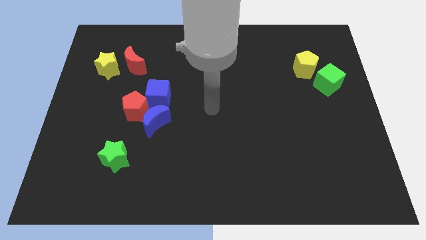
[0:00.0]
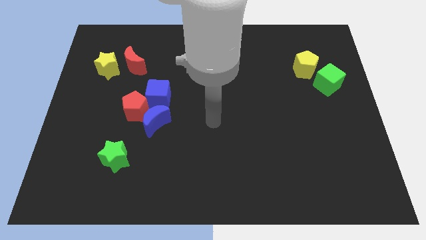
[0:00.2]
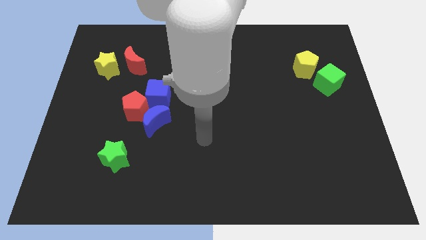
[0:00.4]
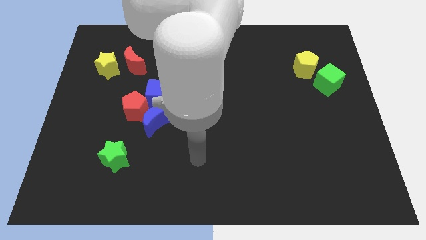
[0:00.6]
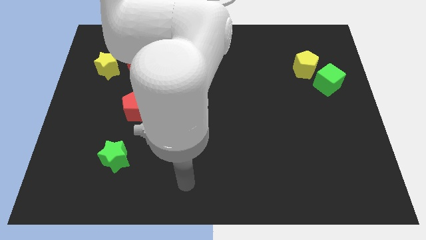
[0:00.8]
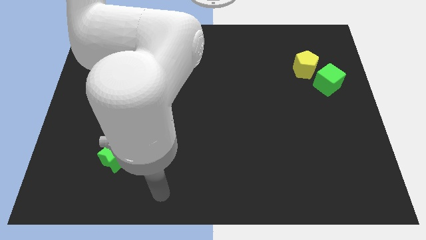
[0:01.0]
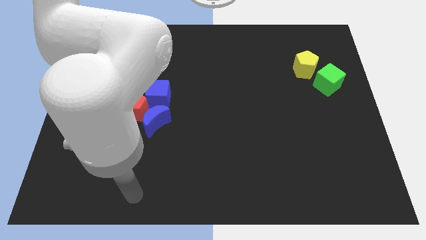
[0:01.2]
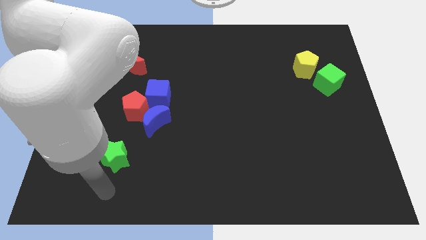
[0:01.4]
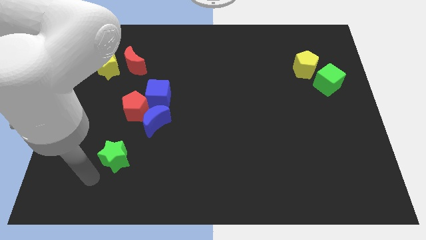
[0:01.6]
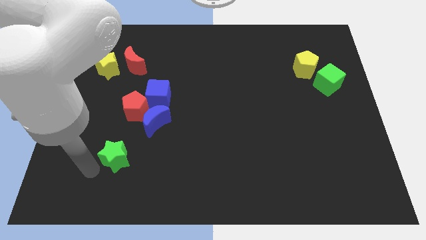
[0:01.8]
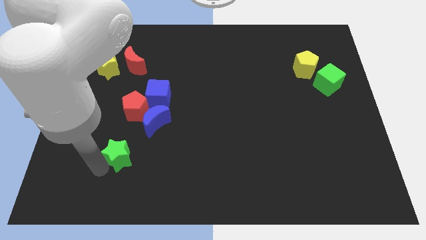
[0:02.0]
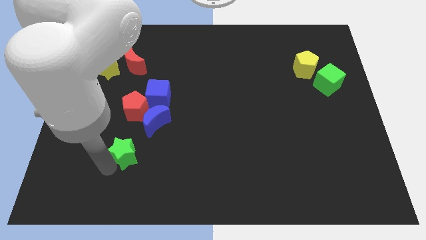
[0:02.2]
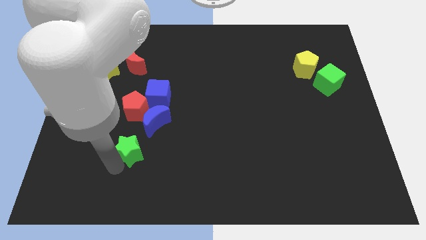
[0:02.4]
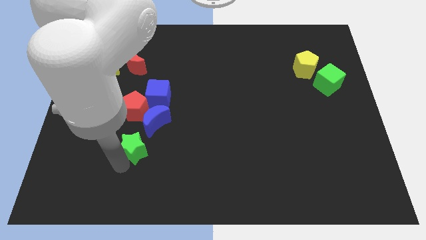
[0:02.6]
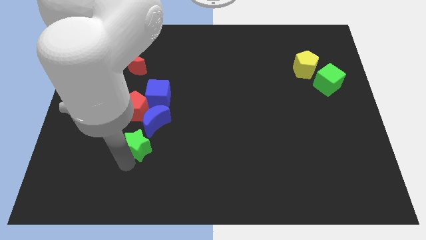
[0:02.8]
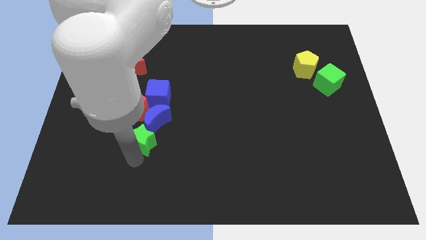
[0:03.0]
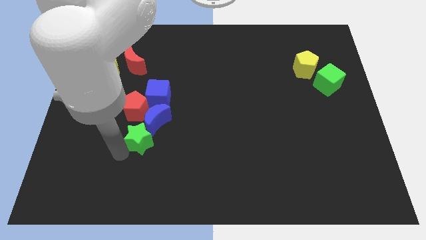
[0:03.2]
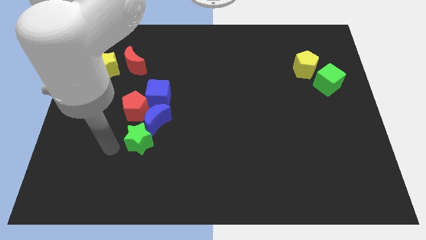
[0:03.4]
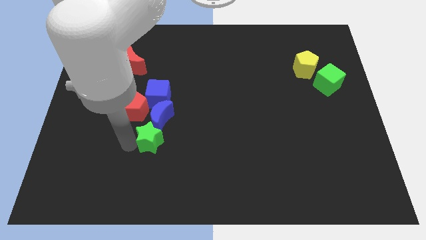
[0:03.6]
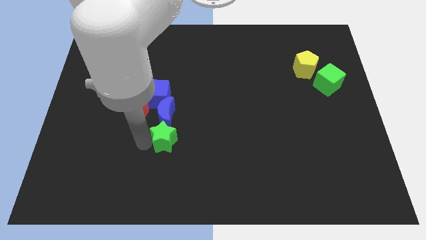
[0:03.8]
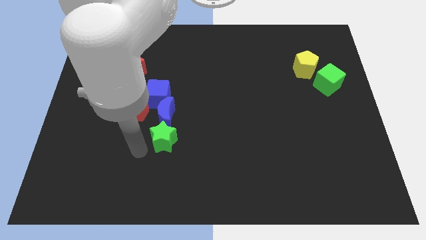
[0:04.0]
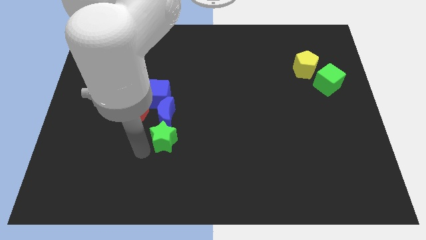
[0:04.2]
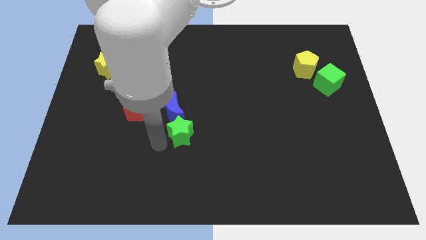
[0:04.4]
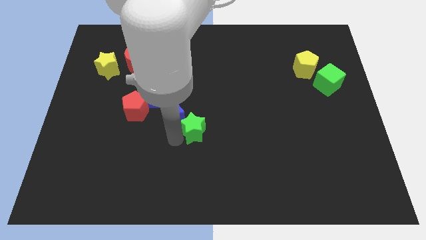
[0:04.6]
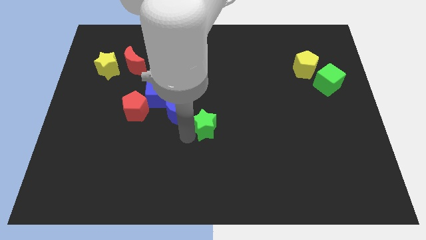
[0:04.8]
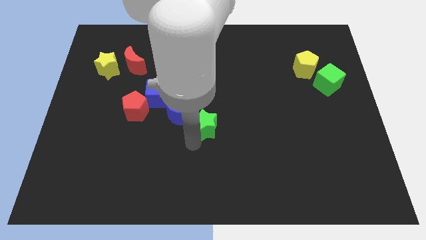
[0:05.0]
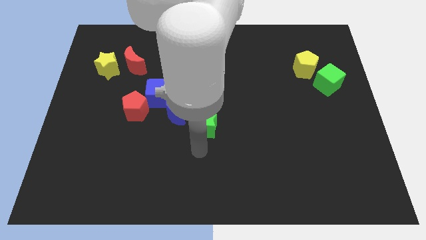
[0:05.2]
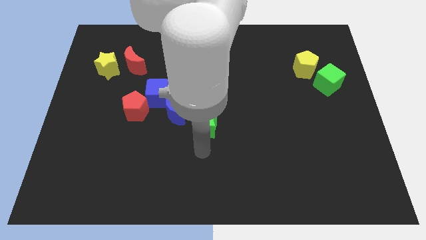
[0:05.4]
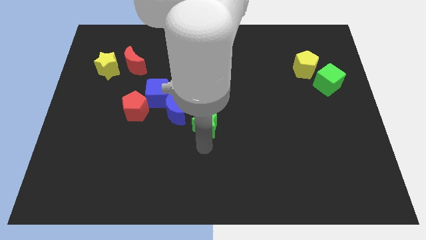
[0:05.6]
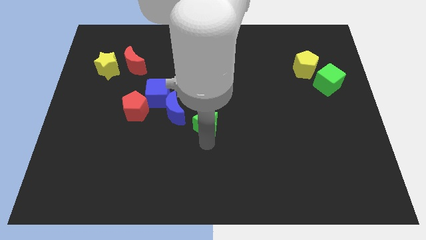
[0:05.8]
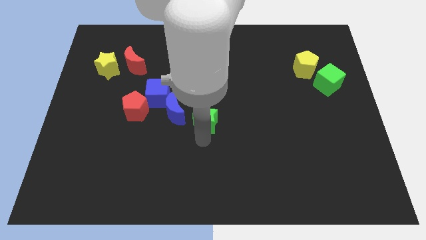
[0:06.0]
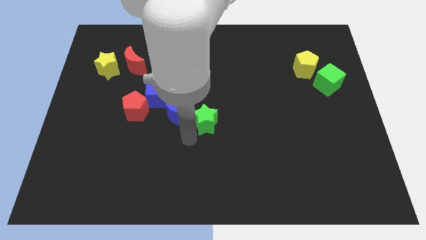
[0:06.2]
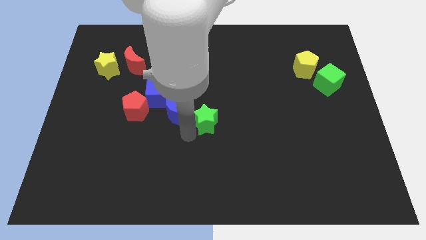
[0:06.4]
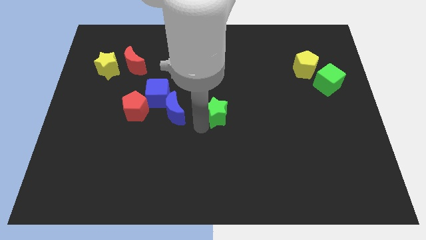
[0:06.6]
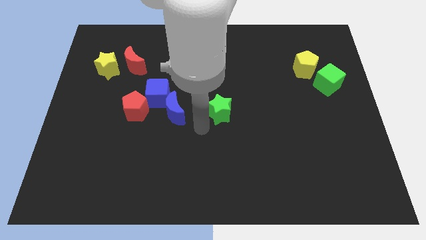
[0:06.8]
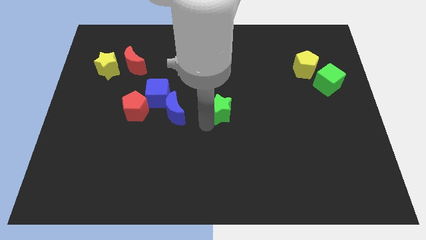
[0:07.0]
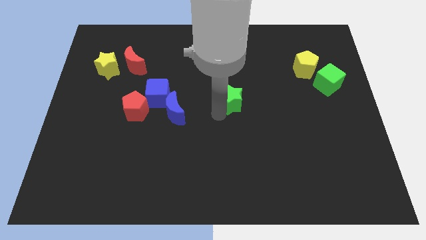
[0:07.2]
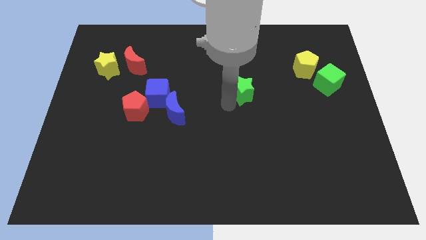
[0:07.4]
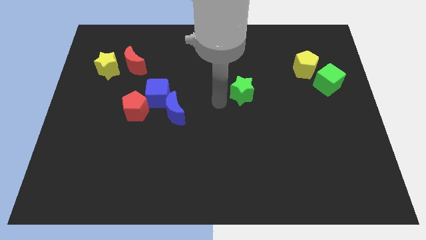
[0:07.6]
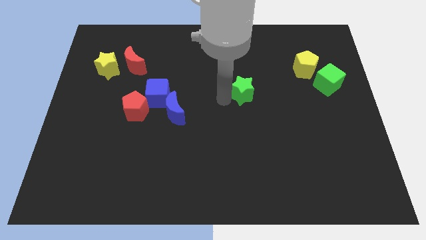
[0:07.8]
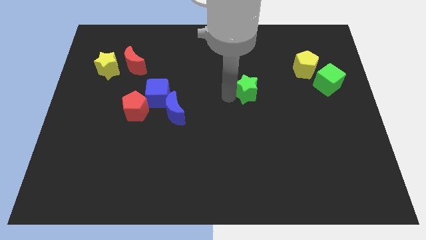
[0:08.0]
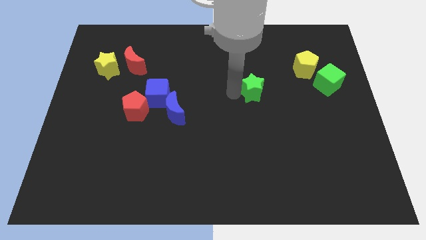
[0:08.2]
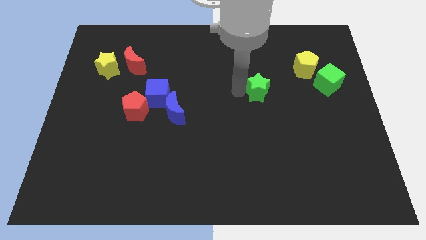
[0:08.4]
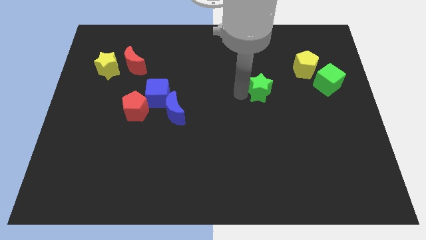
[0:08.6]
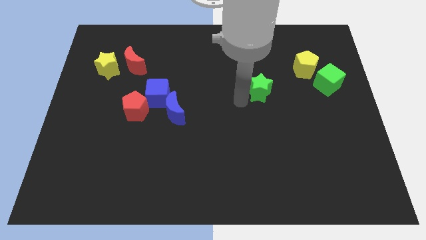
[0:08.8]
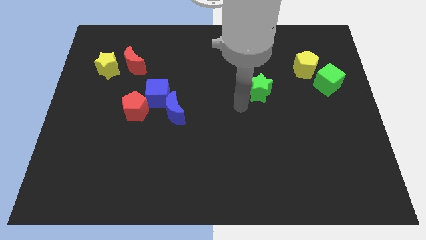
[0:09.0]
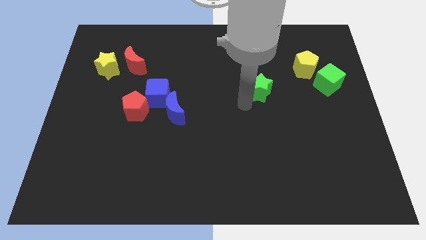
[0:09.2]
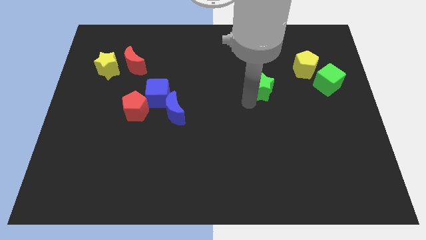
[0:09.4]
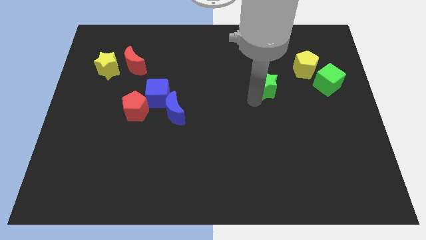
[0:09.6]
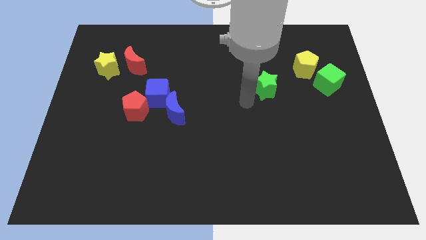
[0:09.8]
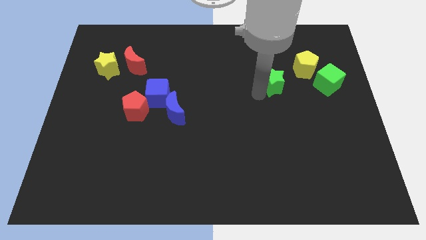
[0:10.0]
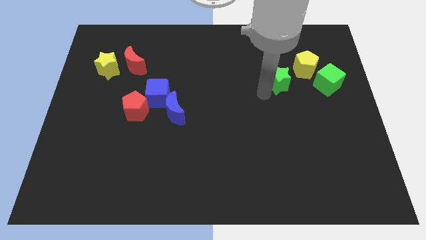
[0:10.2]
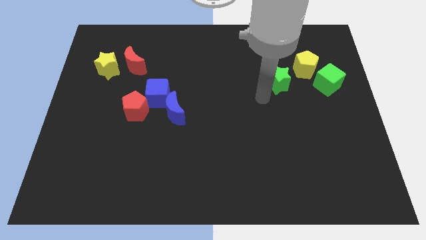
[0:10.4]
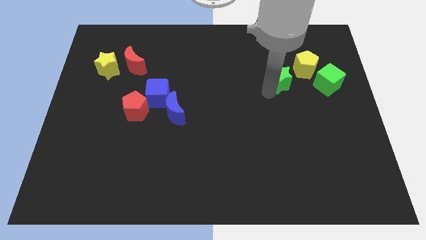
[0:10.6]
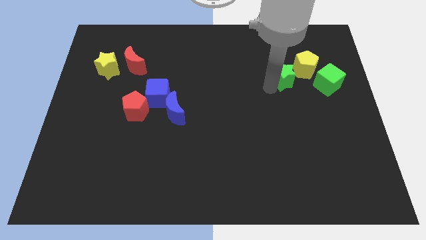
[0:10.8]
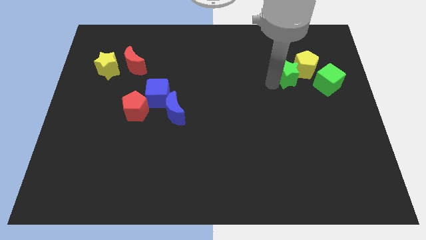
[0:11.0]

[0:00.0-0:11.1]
slide the green star to the yellow pentagon

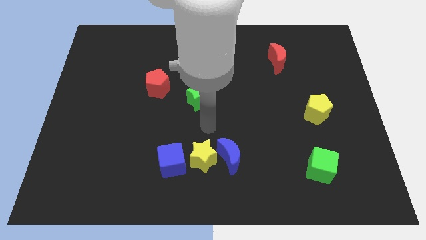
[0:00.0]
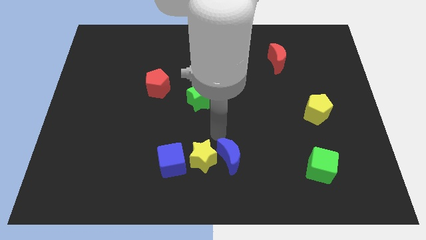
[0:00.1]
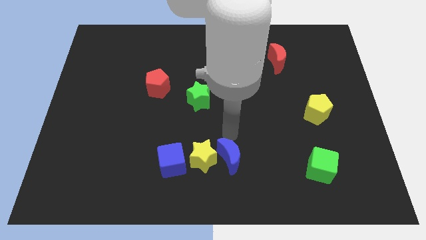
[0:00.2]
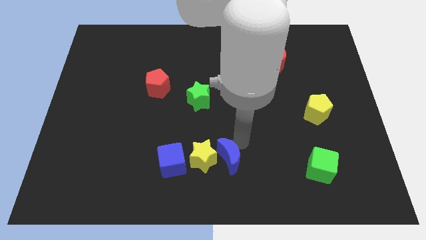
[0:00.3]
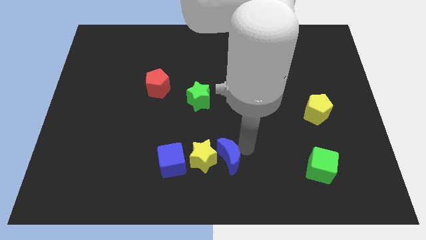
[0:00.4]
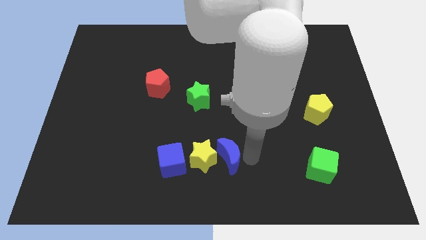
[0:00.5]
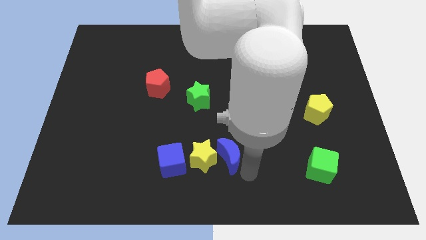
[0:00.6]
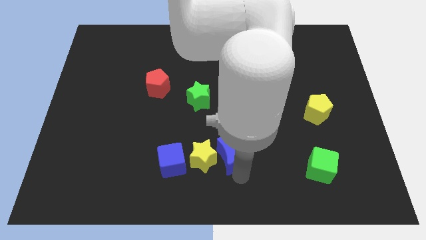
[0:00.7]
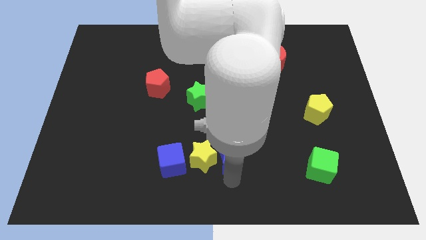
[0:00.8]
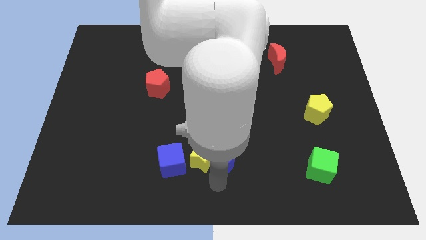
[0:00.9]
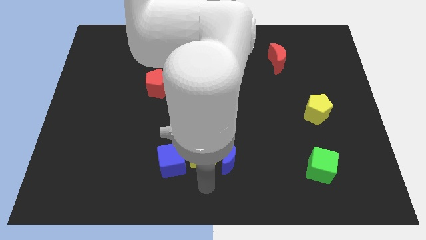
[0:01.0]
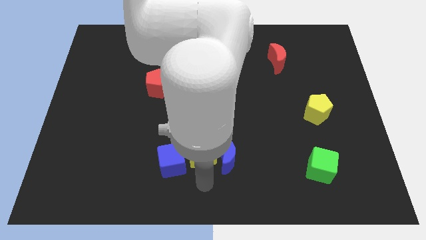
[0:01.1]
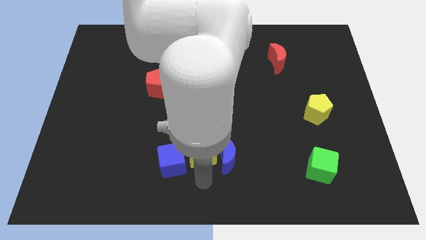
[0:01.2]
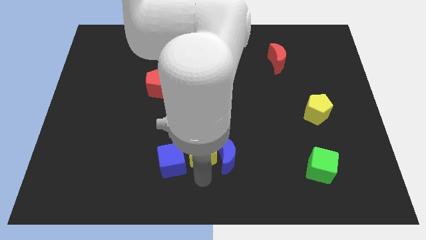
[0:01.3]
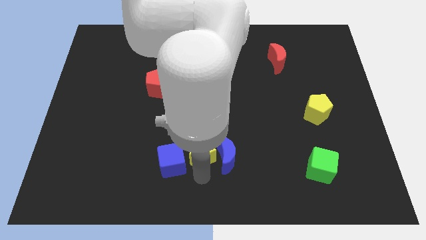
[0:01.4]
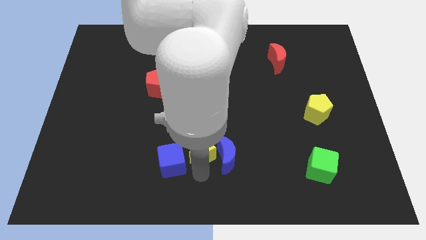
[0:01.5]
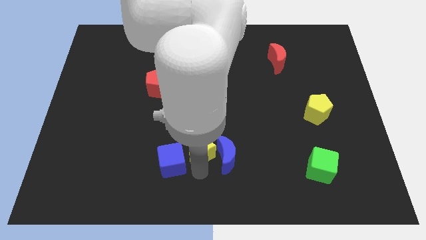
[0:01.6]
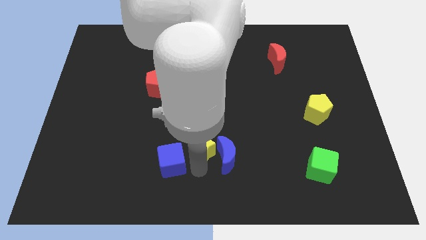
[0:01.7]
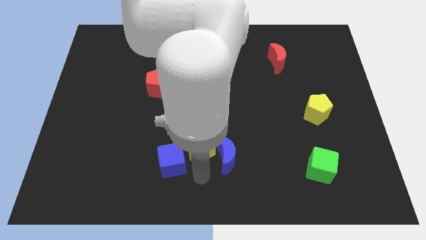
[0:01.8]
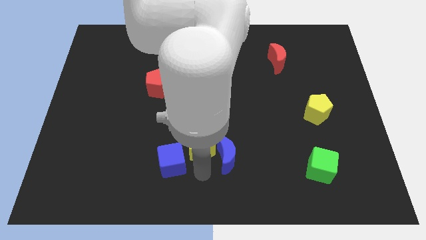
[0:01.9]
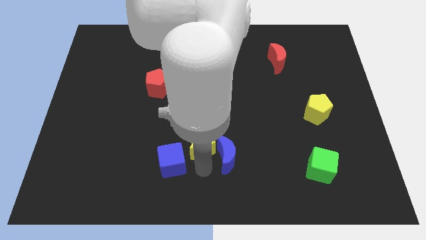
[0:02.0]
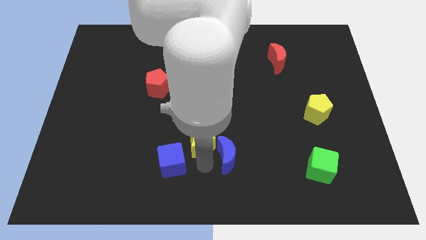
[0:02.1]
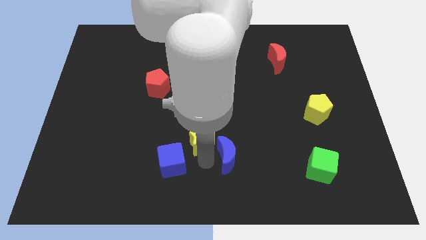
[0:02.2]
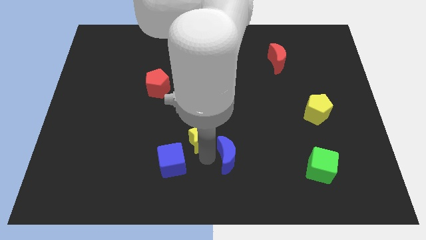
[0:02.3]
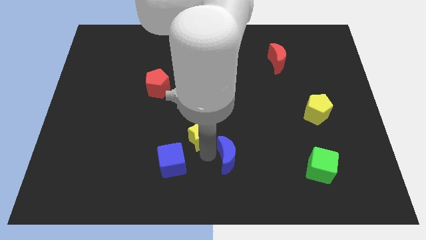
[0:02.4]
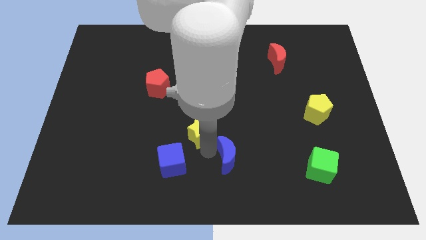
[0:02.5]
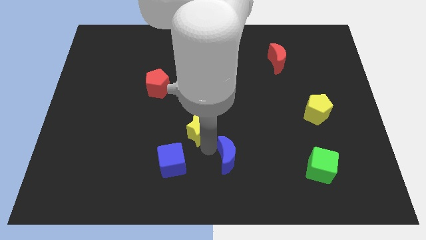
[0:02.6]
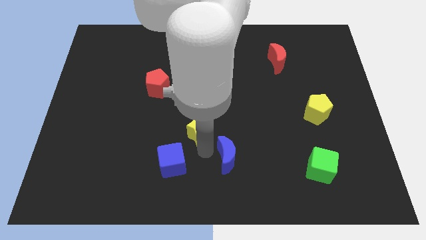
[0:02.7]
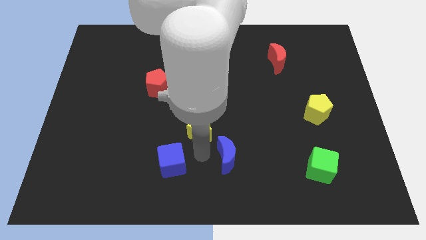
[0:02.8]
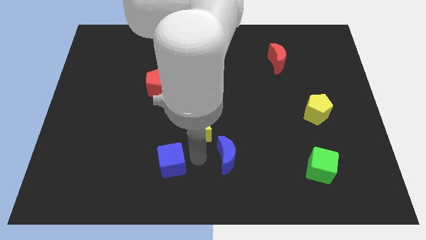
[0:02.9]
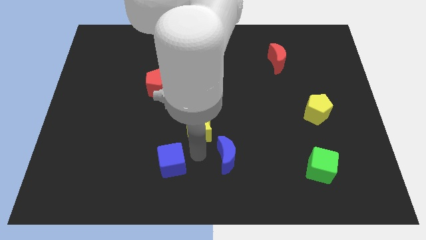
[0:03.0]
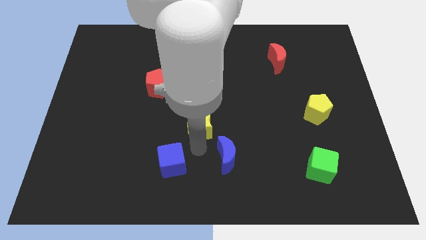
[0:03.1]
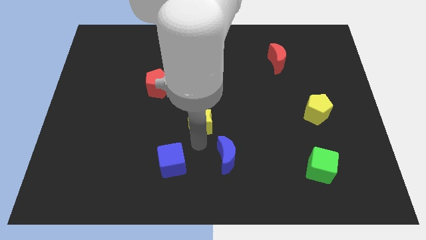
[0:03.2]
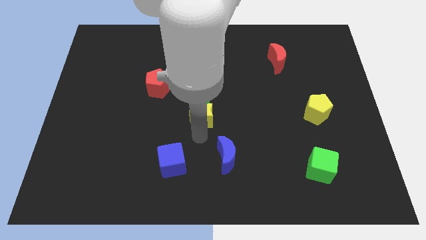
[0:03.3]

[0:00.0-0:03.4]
move the yellow star towards the green star
